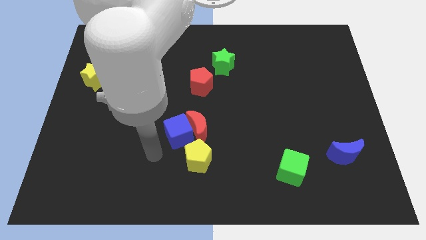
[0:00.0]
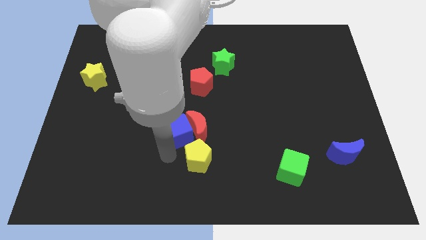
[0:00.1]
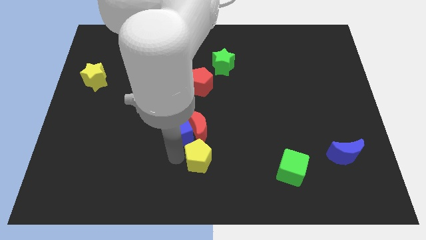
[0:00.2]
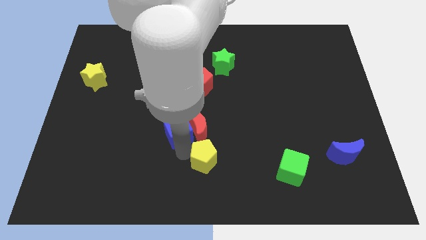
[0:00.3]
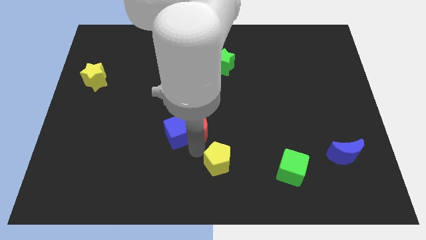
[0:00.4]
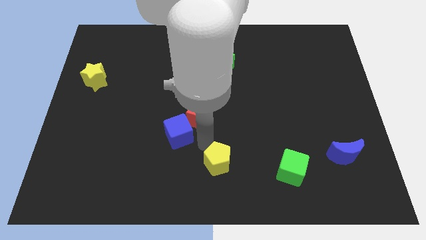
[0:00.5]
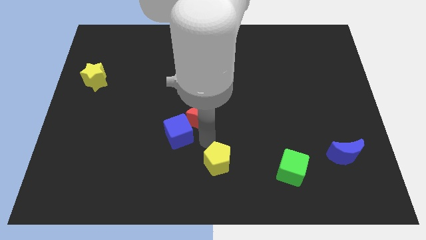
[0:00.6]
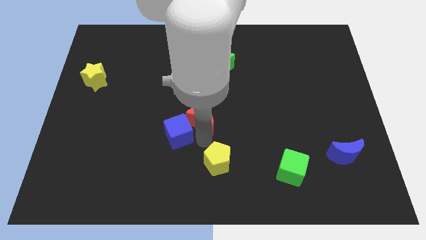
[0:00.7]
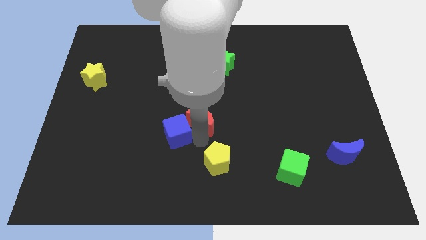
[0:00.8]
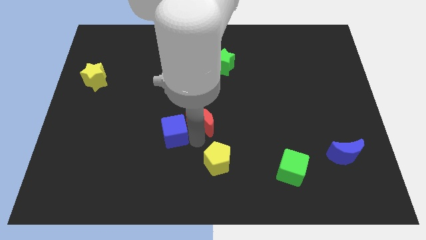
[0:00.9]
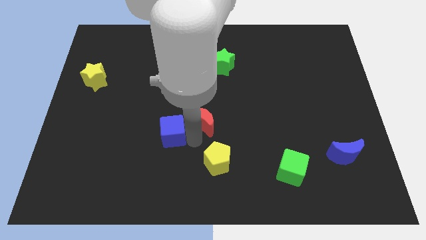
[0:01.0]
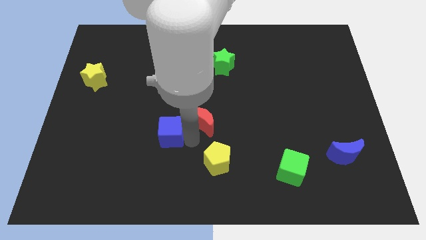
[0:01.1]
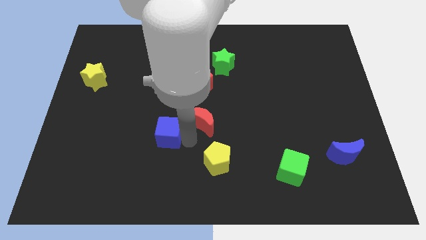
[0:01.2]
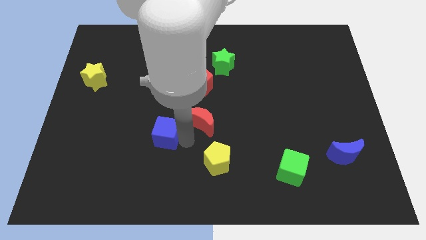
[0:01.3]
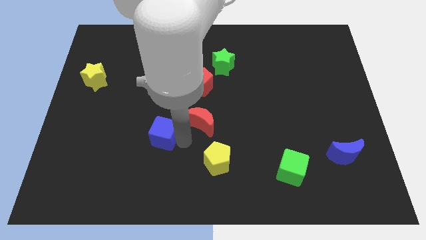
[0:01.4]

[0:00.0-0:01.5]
pull the blue cube apart from the red moon and yellow pentagon

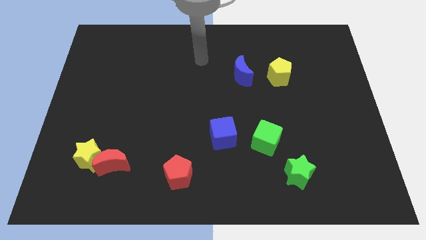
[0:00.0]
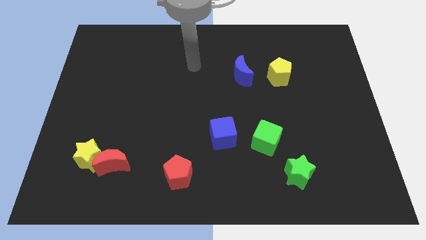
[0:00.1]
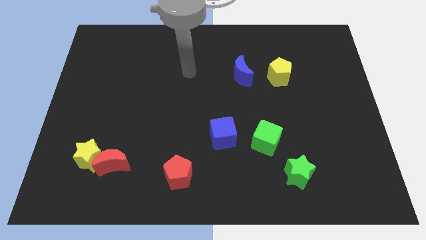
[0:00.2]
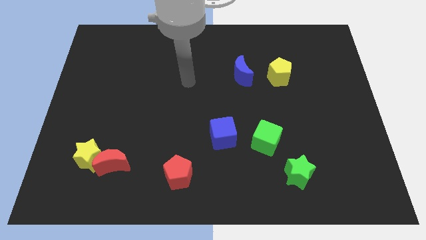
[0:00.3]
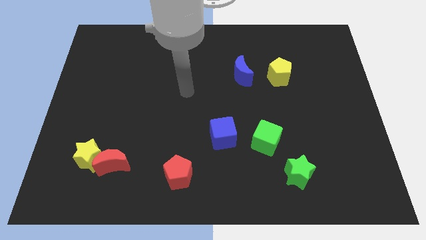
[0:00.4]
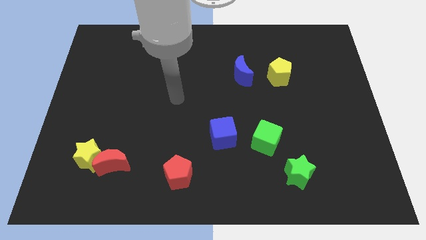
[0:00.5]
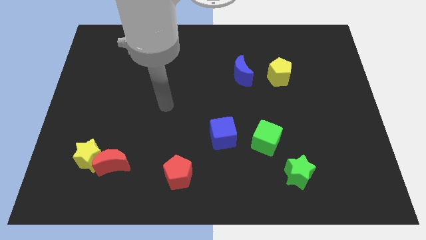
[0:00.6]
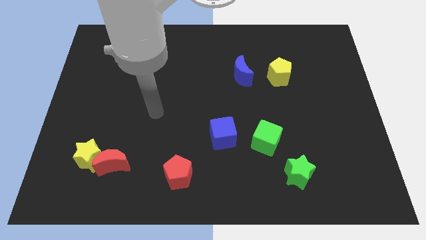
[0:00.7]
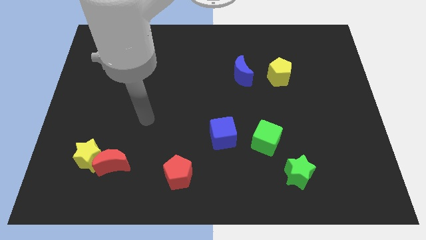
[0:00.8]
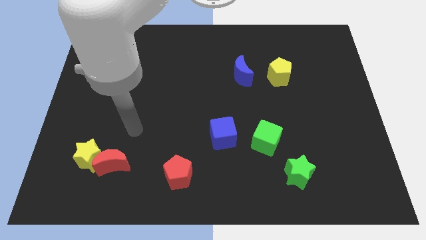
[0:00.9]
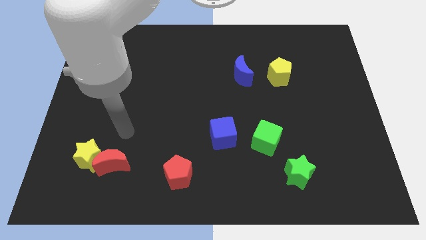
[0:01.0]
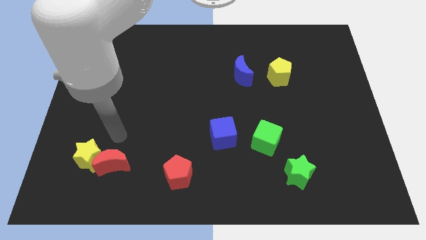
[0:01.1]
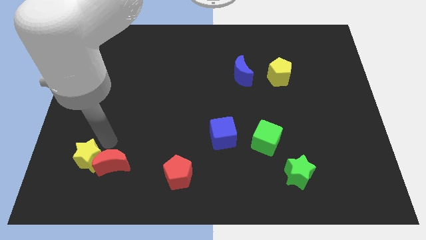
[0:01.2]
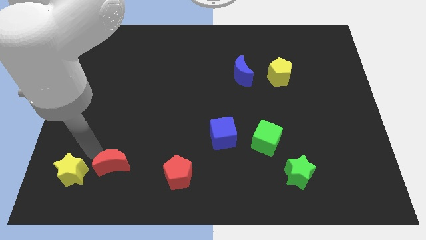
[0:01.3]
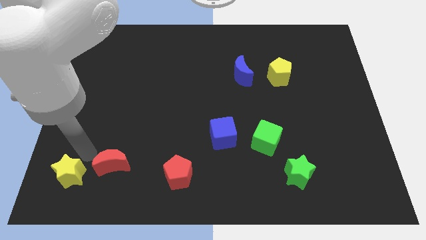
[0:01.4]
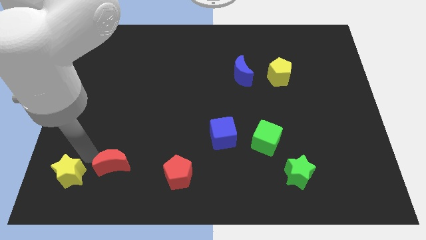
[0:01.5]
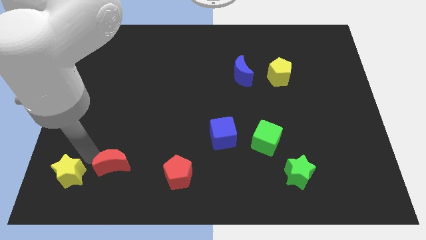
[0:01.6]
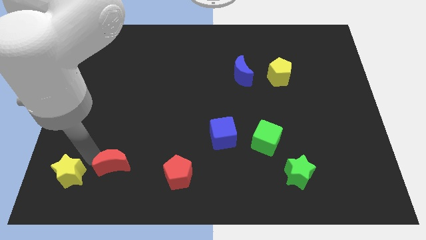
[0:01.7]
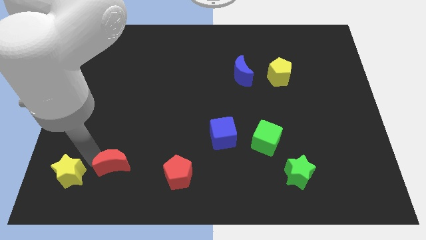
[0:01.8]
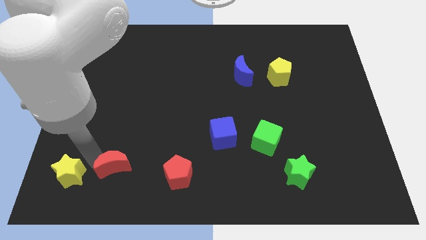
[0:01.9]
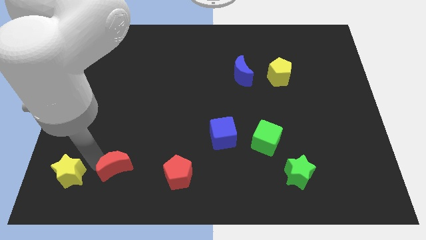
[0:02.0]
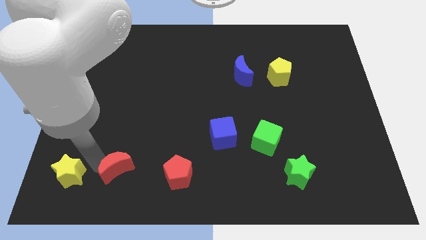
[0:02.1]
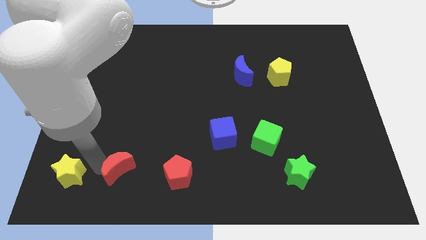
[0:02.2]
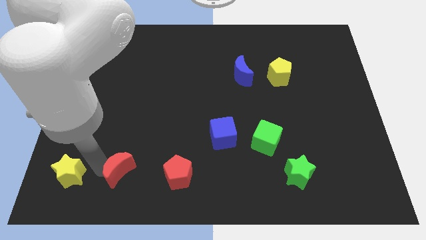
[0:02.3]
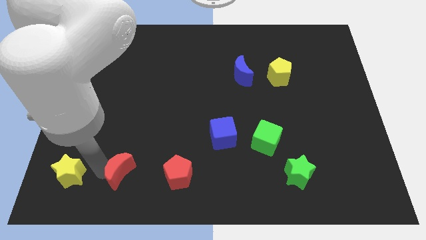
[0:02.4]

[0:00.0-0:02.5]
pull the red moon apart from the yellow star

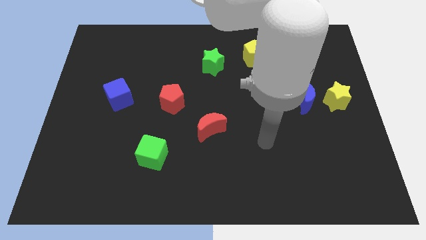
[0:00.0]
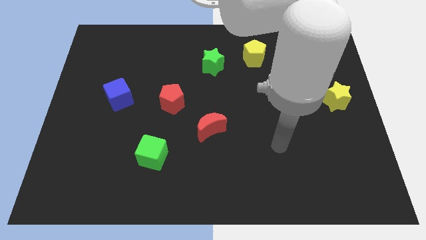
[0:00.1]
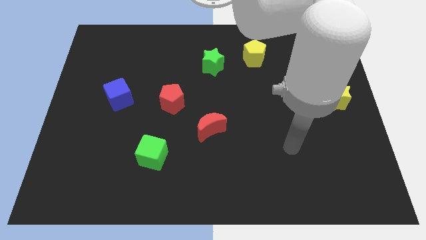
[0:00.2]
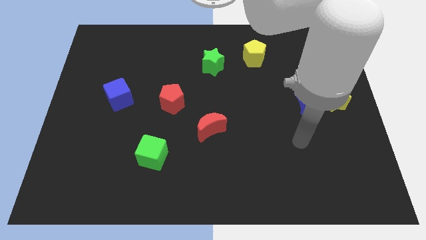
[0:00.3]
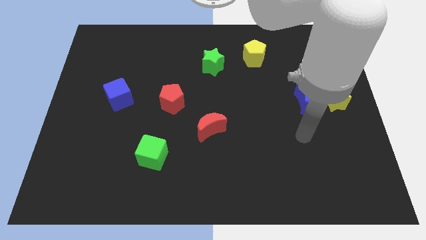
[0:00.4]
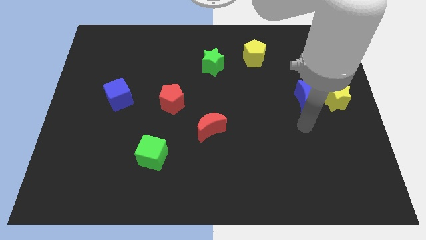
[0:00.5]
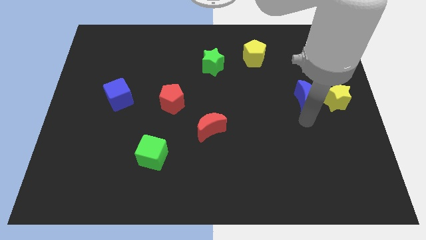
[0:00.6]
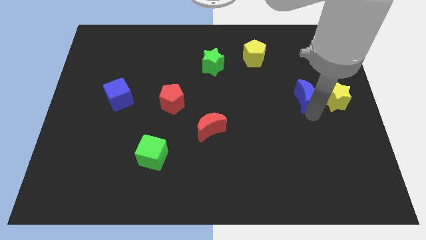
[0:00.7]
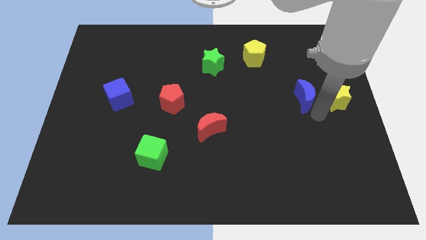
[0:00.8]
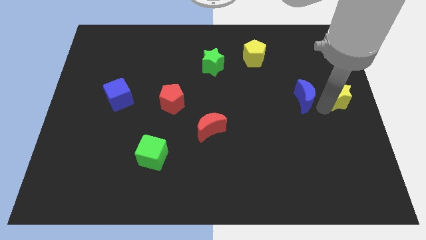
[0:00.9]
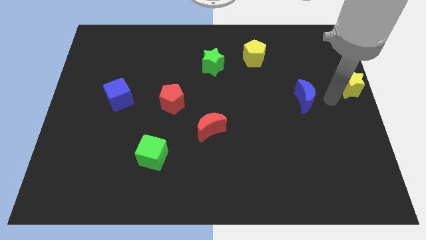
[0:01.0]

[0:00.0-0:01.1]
move the blue moon away from the yellow star

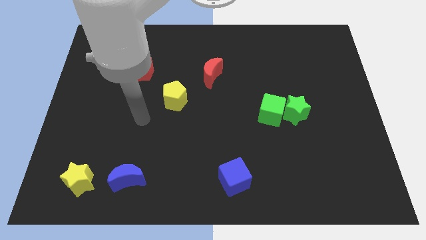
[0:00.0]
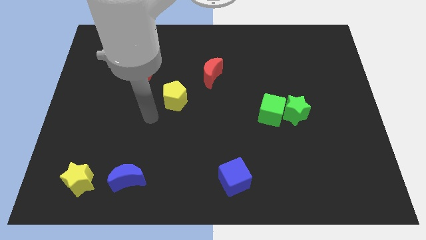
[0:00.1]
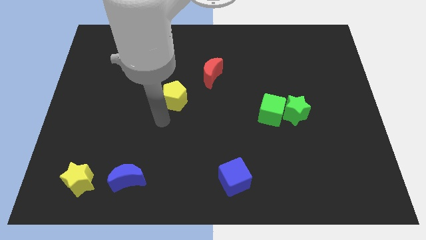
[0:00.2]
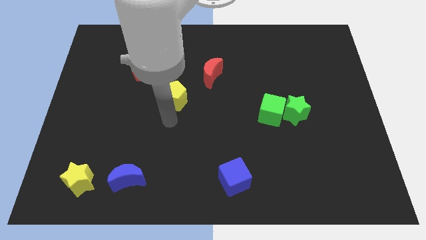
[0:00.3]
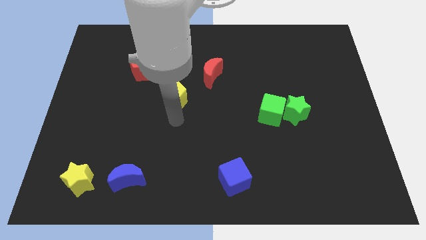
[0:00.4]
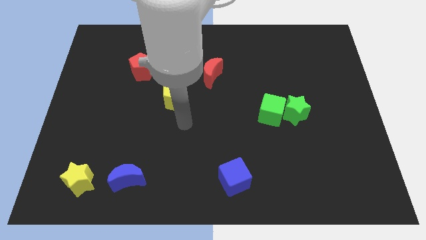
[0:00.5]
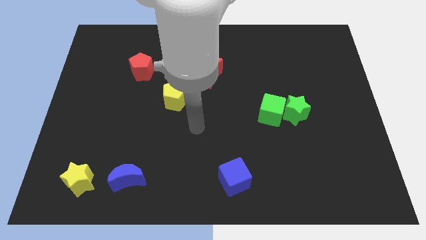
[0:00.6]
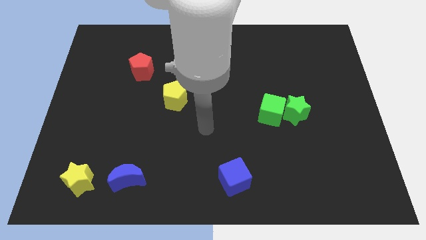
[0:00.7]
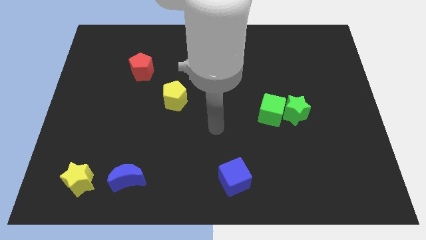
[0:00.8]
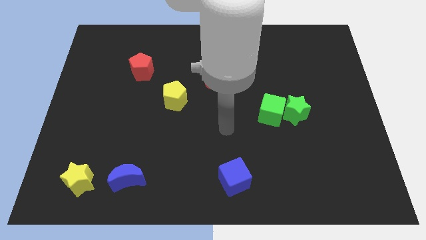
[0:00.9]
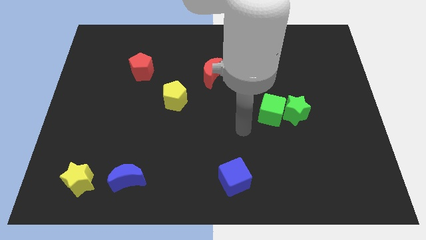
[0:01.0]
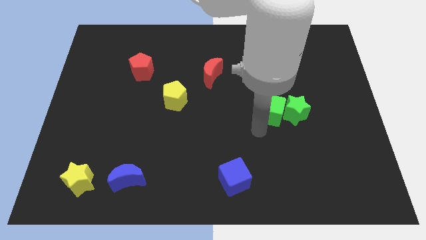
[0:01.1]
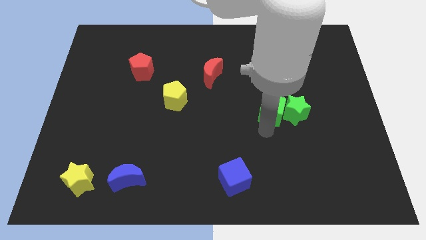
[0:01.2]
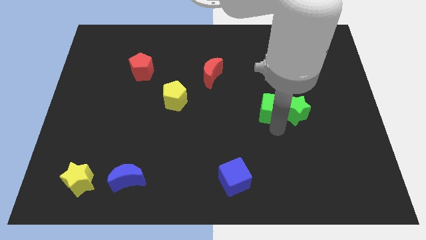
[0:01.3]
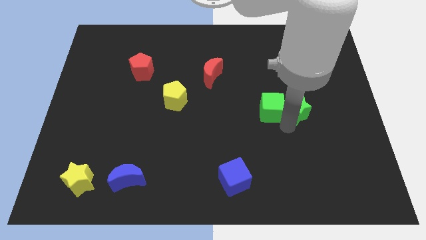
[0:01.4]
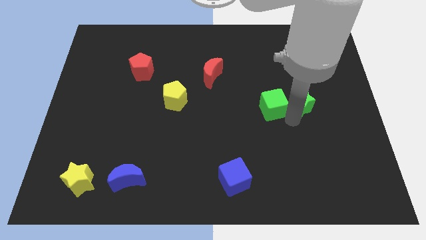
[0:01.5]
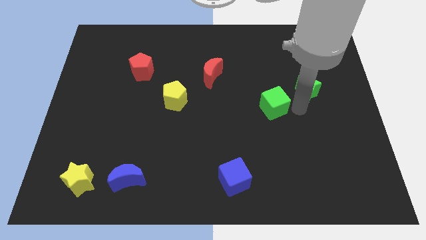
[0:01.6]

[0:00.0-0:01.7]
move the green cube away from the green star

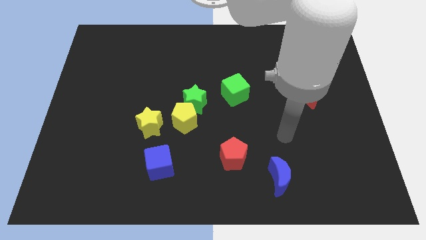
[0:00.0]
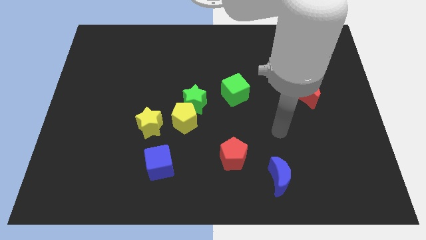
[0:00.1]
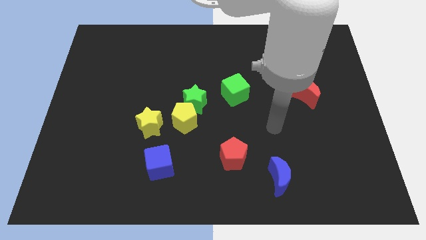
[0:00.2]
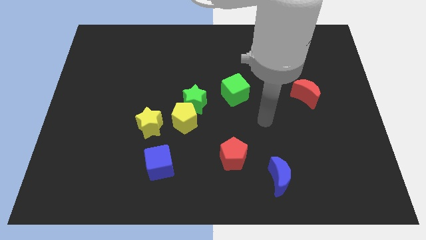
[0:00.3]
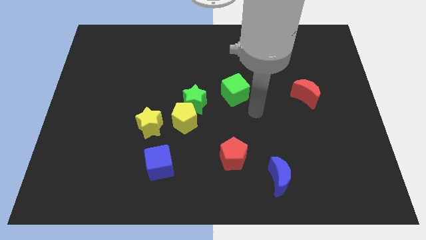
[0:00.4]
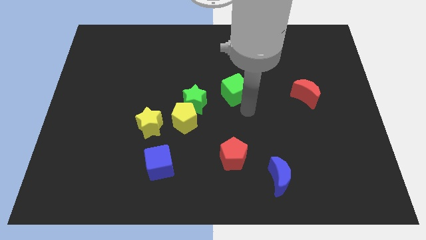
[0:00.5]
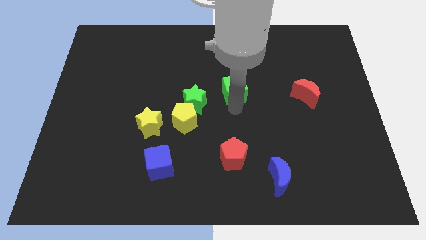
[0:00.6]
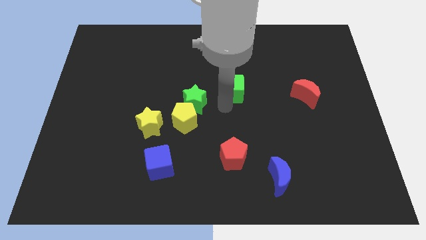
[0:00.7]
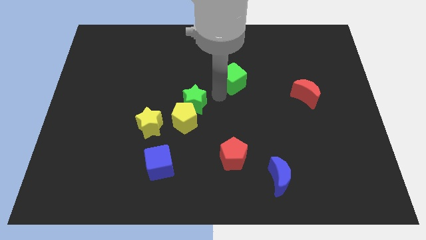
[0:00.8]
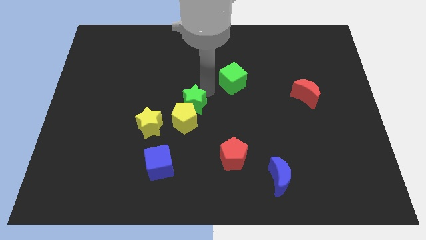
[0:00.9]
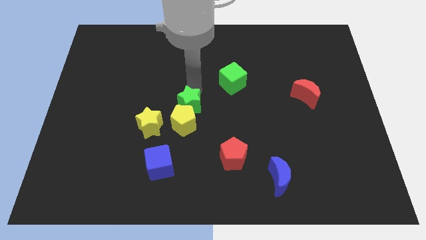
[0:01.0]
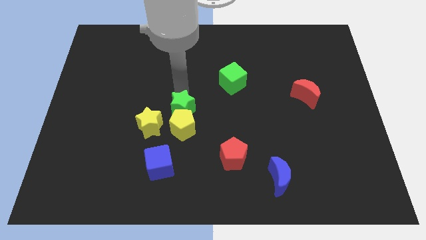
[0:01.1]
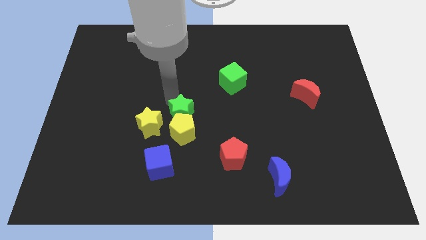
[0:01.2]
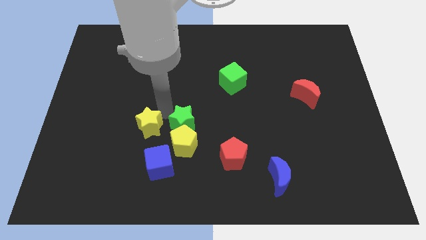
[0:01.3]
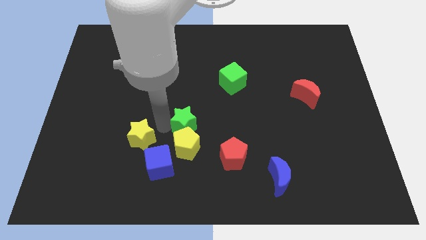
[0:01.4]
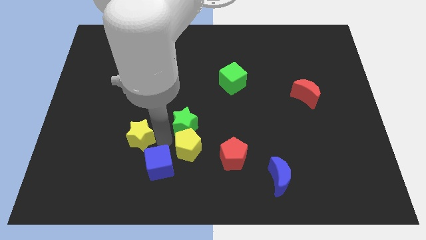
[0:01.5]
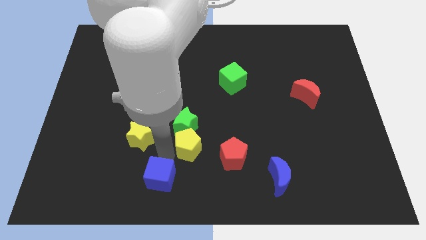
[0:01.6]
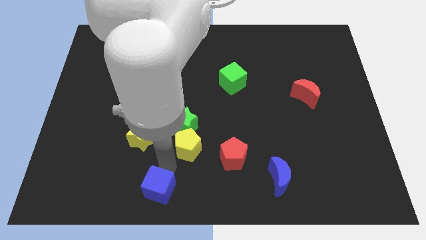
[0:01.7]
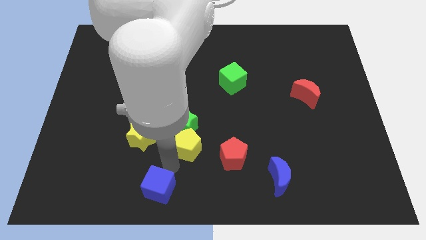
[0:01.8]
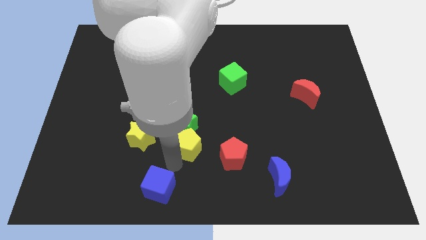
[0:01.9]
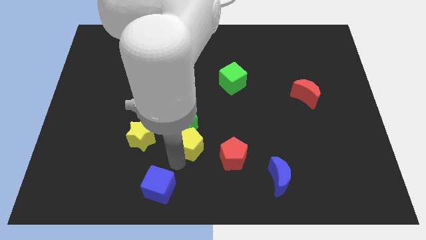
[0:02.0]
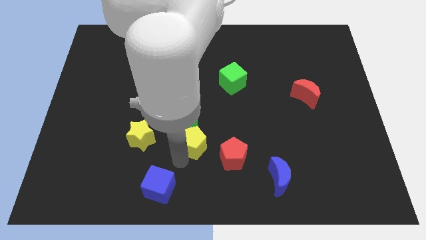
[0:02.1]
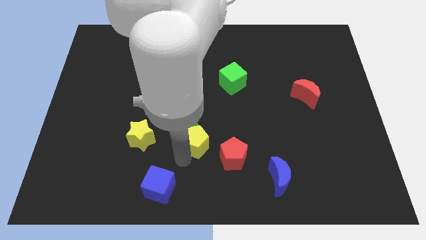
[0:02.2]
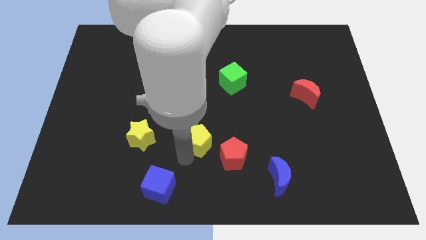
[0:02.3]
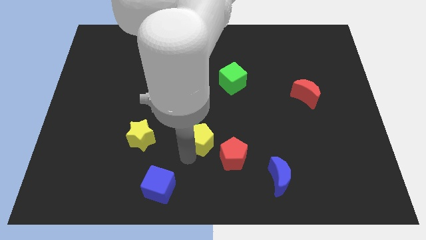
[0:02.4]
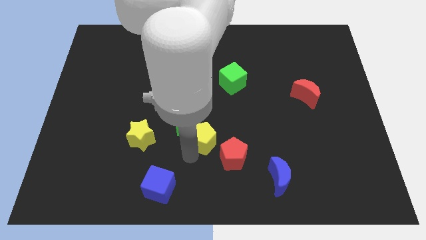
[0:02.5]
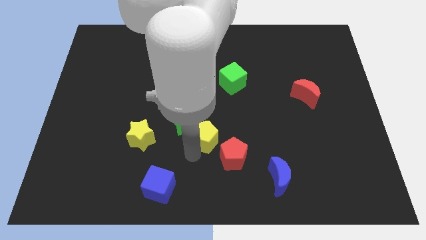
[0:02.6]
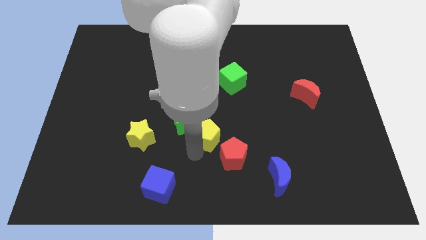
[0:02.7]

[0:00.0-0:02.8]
separate the yellow pentagon from the green star and yellow star
